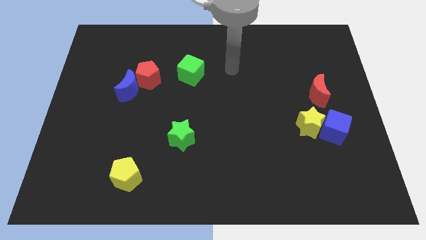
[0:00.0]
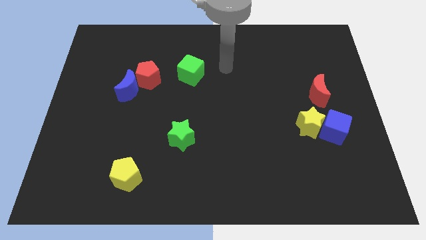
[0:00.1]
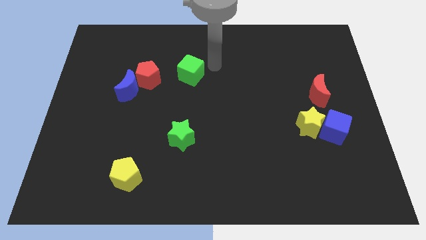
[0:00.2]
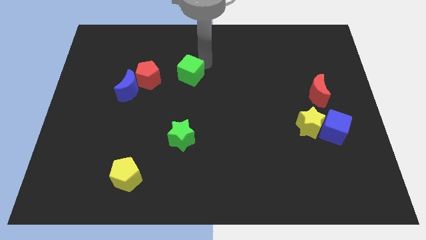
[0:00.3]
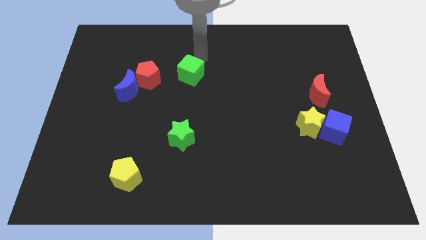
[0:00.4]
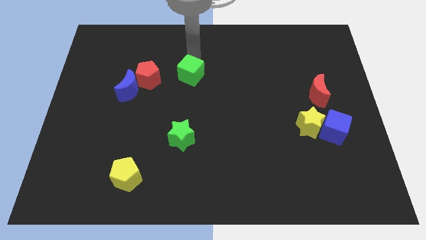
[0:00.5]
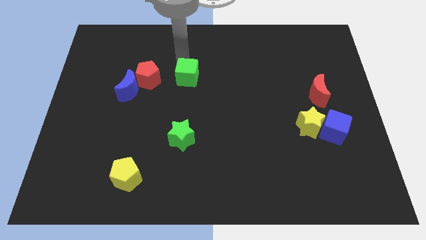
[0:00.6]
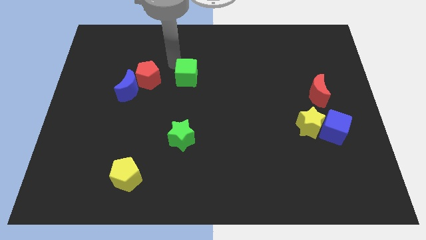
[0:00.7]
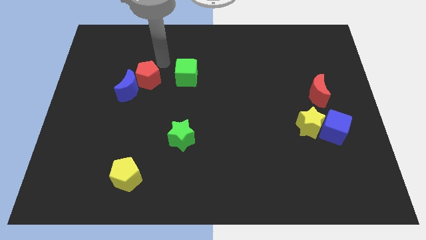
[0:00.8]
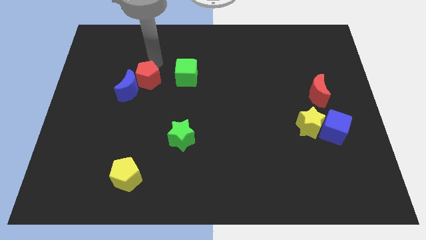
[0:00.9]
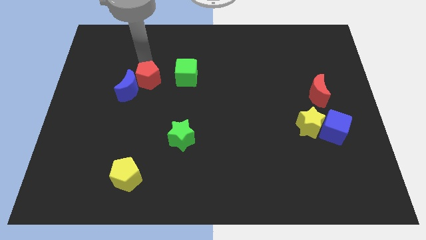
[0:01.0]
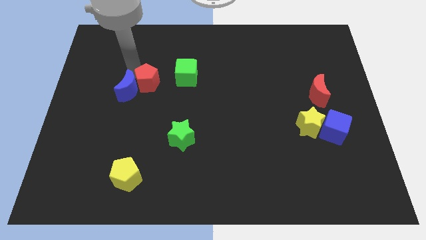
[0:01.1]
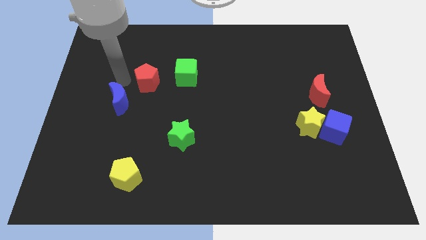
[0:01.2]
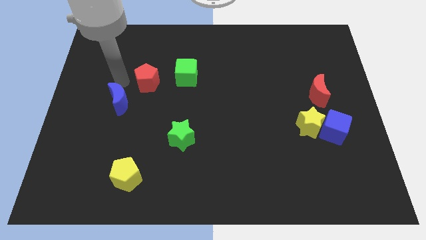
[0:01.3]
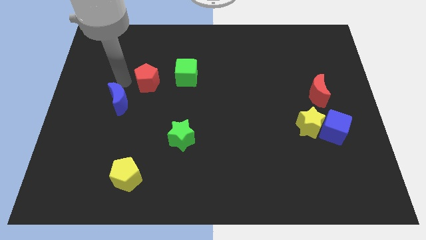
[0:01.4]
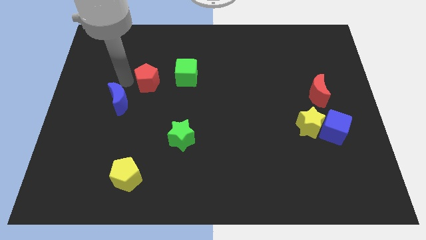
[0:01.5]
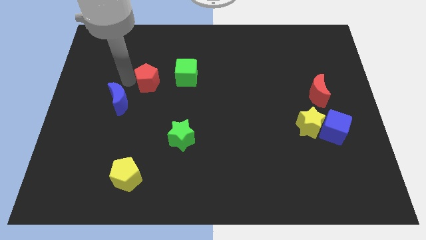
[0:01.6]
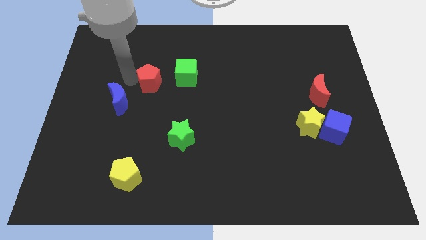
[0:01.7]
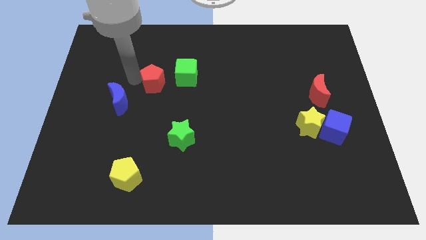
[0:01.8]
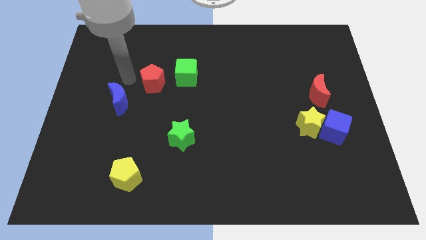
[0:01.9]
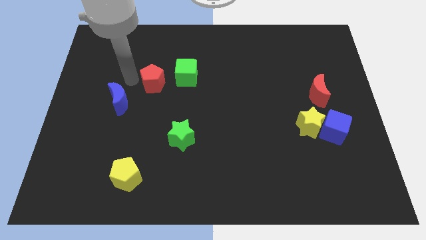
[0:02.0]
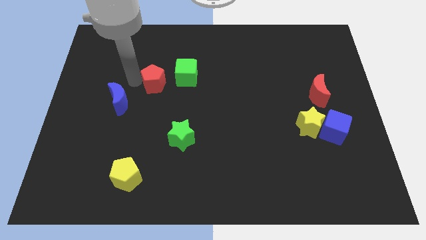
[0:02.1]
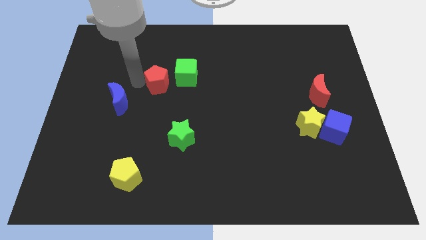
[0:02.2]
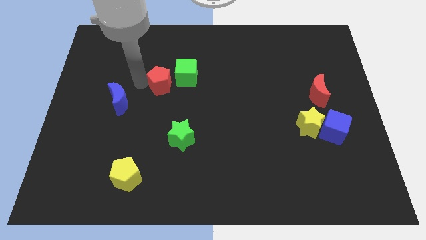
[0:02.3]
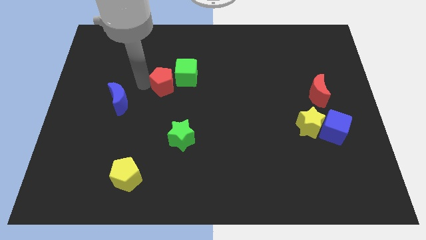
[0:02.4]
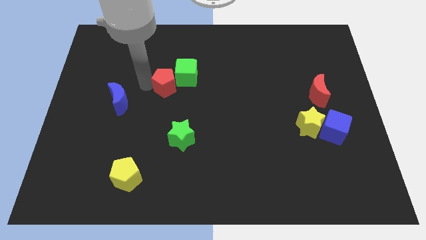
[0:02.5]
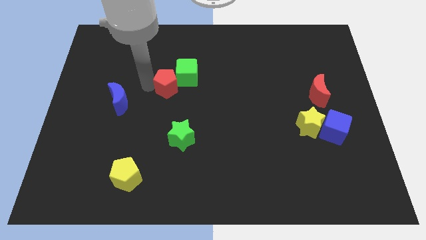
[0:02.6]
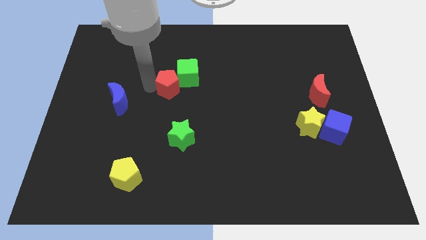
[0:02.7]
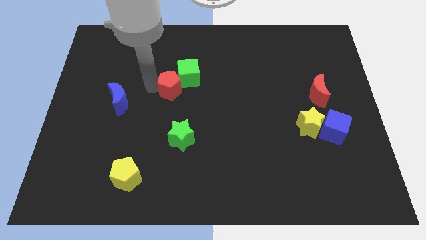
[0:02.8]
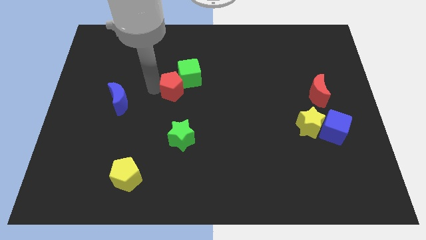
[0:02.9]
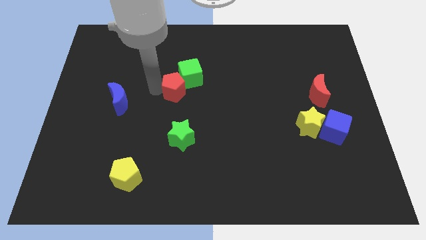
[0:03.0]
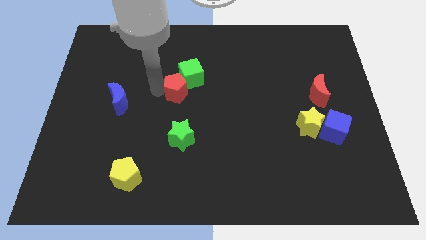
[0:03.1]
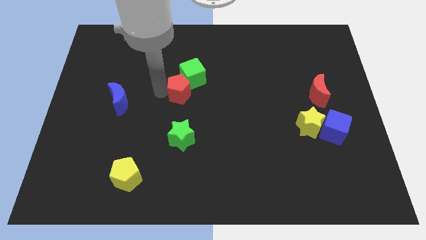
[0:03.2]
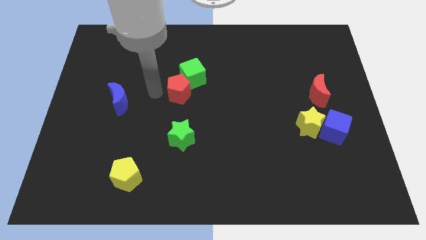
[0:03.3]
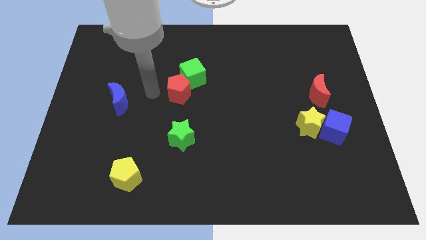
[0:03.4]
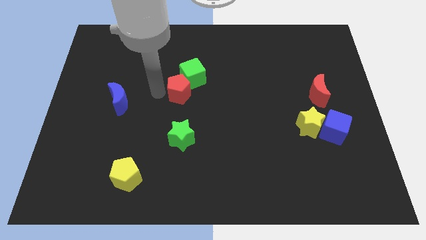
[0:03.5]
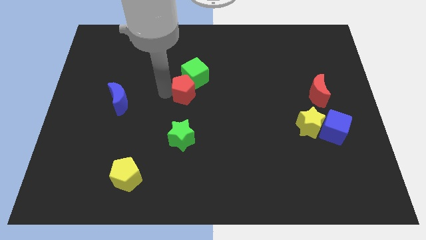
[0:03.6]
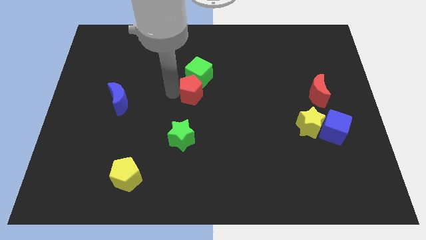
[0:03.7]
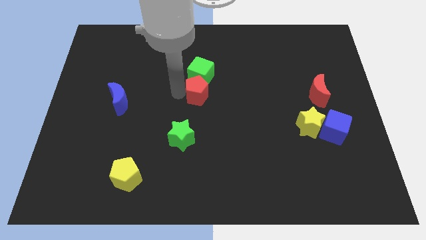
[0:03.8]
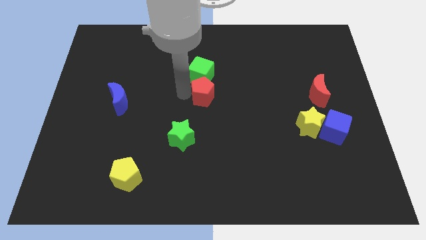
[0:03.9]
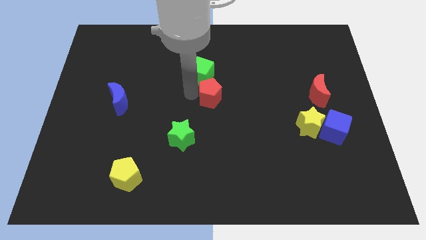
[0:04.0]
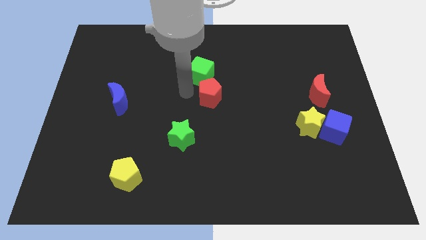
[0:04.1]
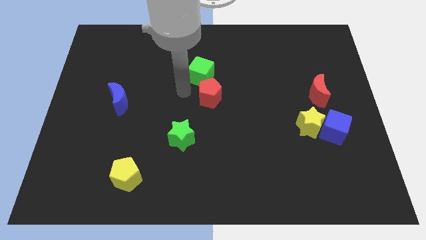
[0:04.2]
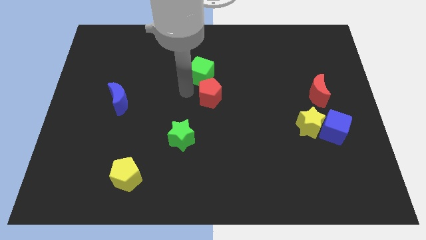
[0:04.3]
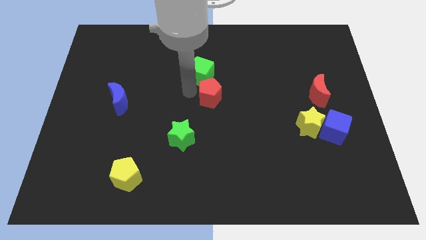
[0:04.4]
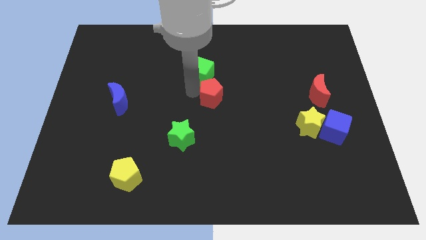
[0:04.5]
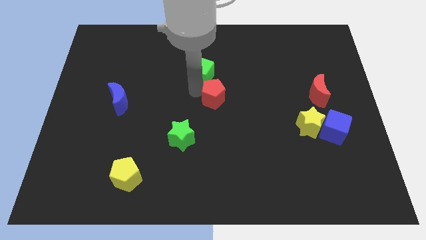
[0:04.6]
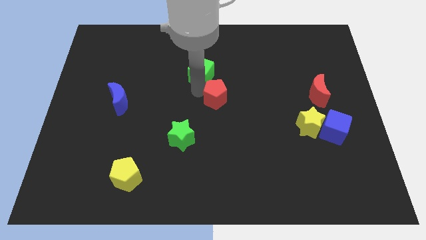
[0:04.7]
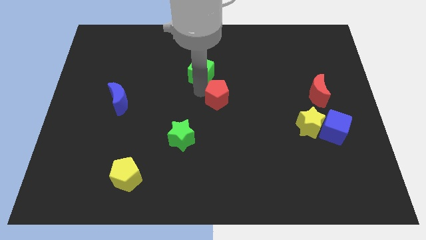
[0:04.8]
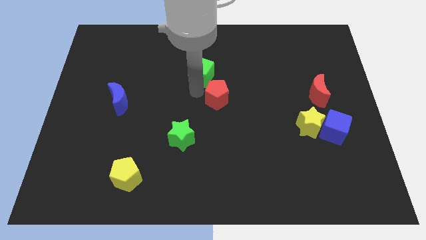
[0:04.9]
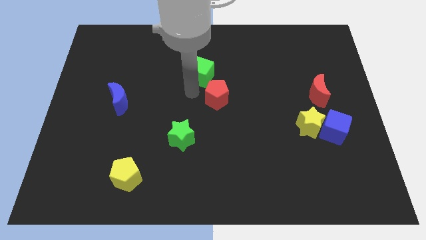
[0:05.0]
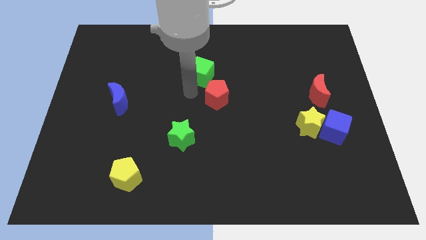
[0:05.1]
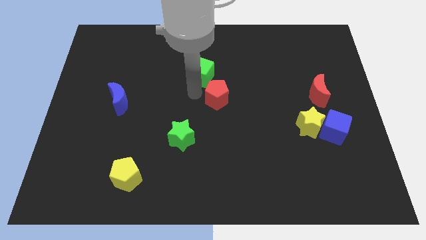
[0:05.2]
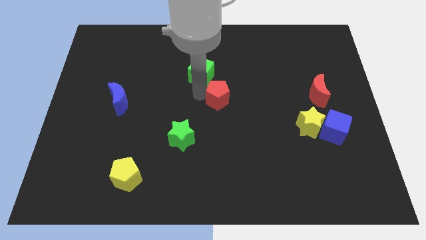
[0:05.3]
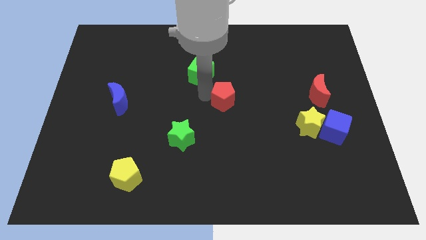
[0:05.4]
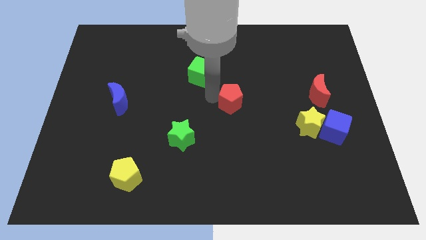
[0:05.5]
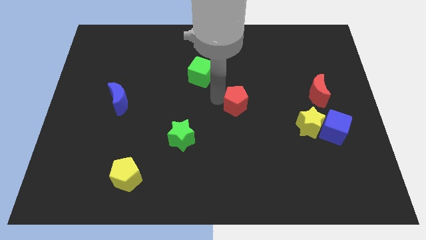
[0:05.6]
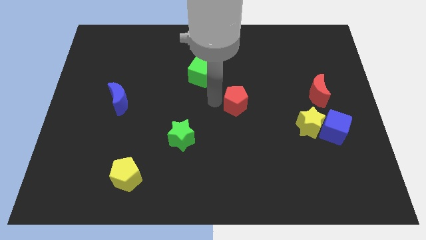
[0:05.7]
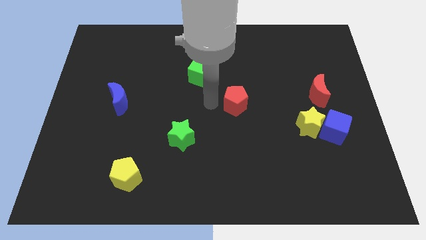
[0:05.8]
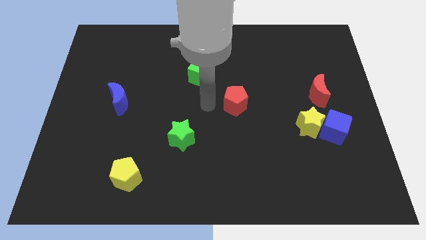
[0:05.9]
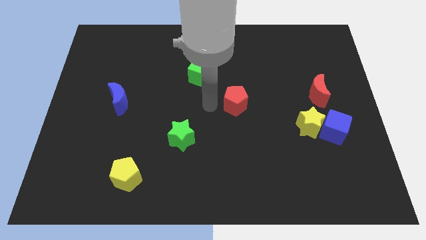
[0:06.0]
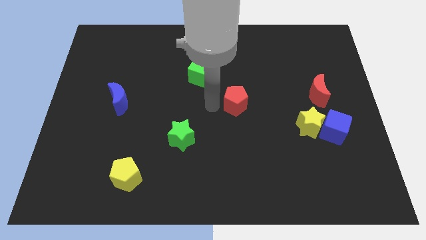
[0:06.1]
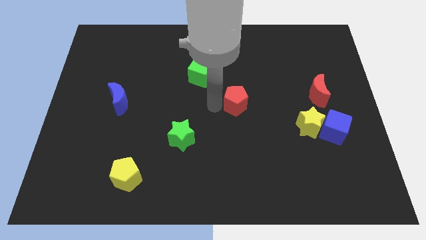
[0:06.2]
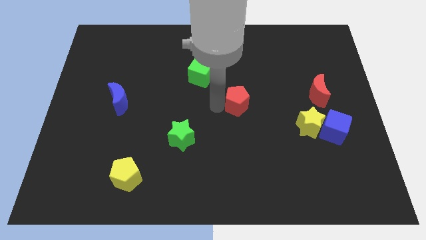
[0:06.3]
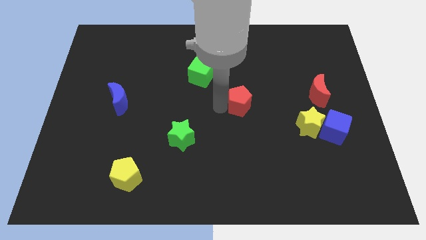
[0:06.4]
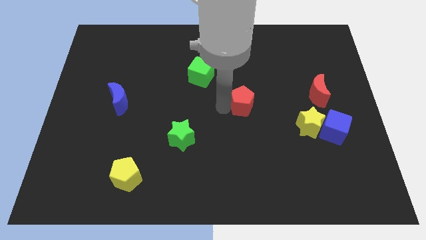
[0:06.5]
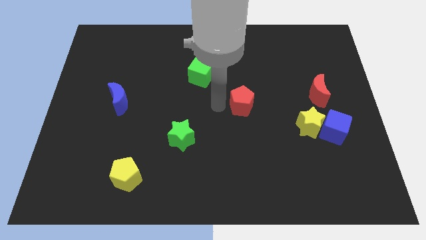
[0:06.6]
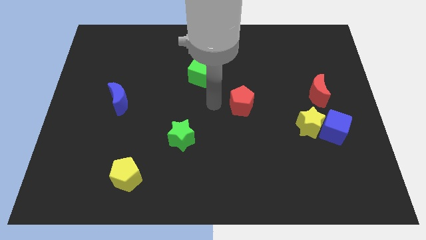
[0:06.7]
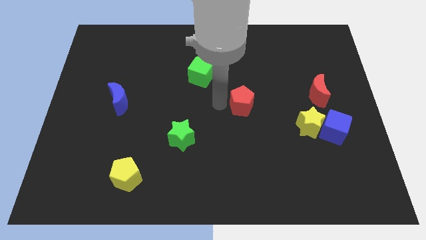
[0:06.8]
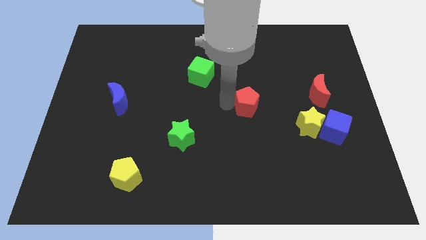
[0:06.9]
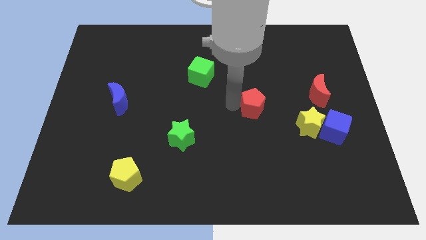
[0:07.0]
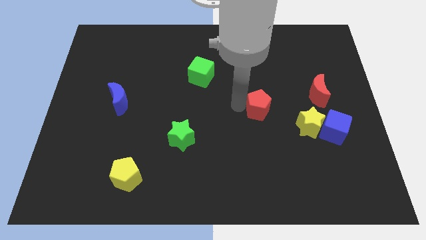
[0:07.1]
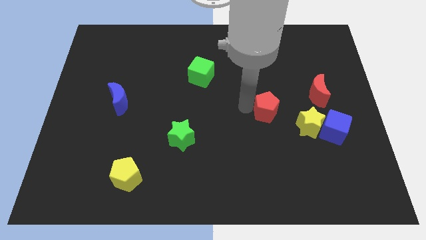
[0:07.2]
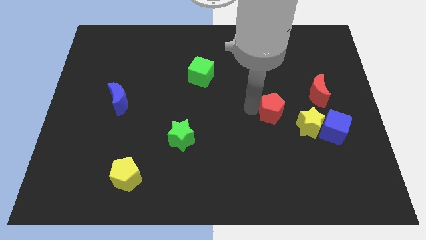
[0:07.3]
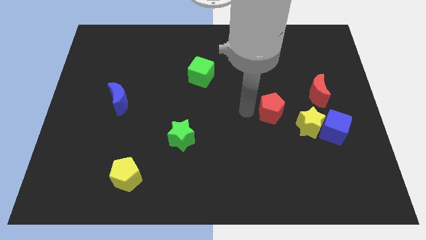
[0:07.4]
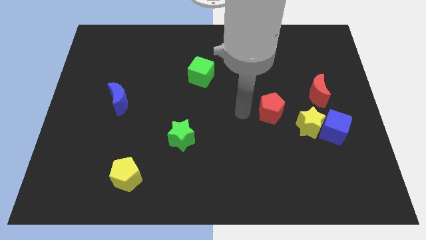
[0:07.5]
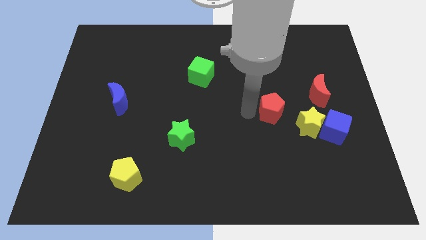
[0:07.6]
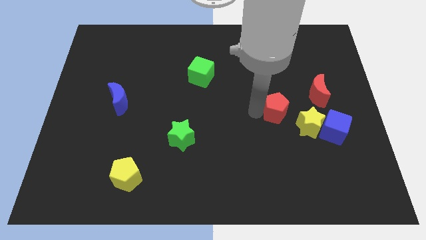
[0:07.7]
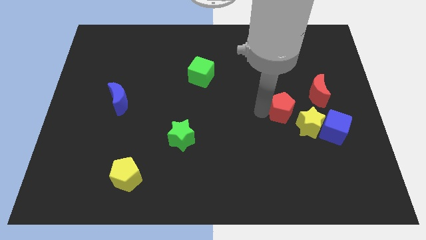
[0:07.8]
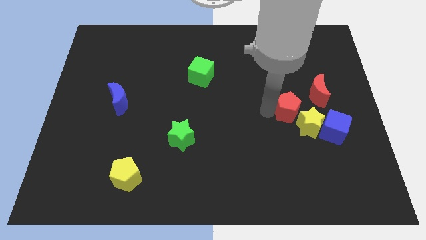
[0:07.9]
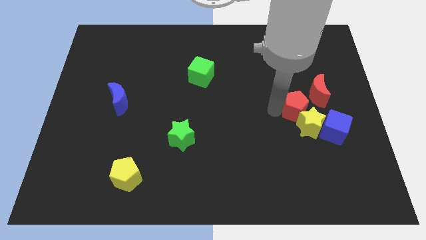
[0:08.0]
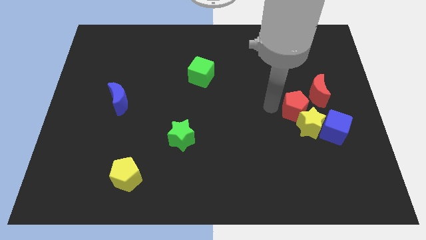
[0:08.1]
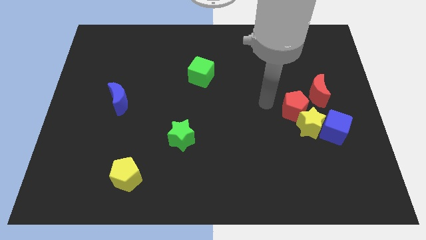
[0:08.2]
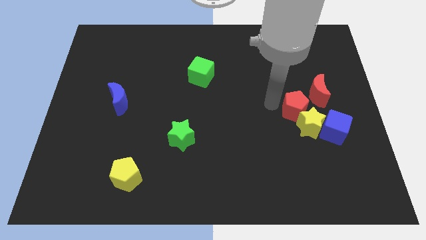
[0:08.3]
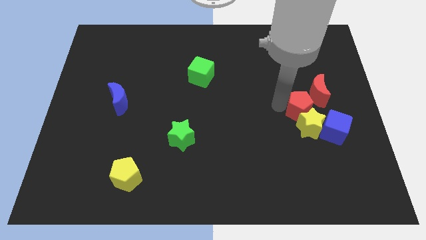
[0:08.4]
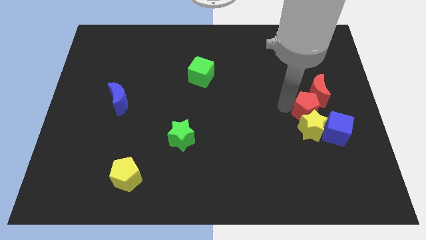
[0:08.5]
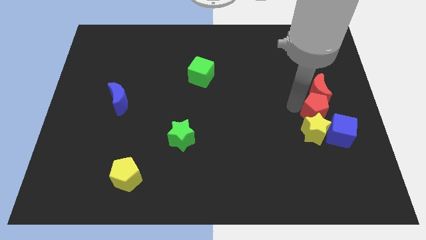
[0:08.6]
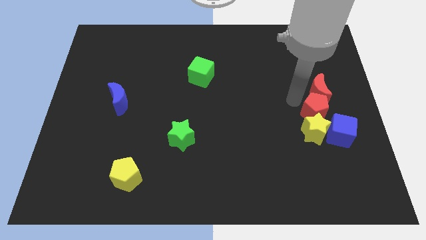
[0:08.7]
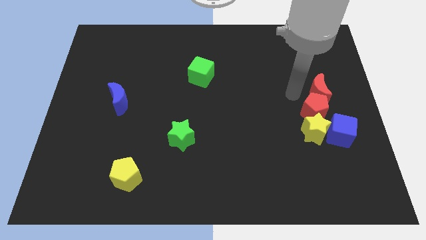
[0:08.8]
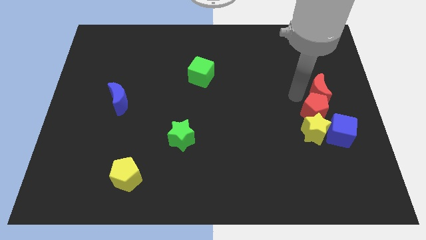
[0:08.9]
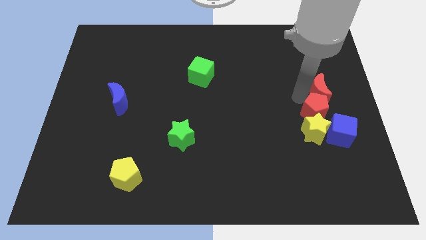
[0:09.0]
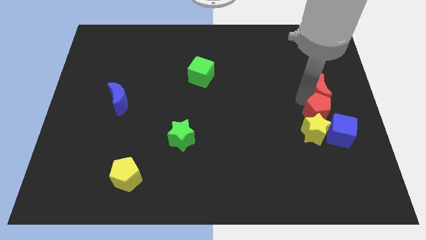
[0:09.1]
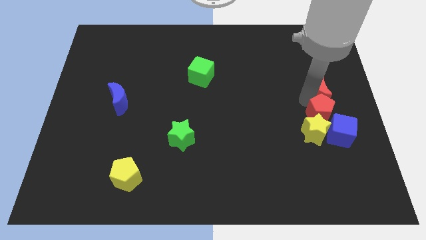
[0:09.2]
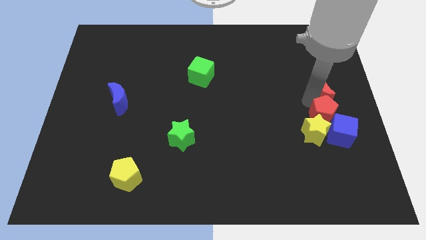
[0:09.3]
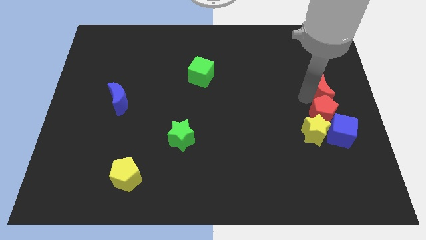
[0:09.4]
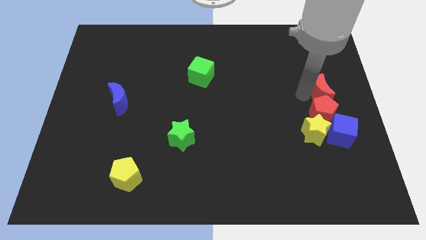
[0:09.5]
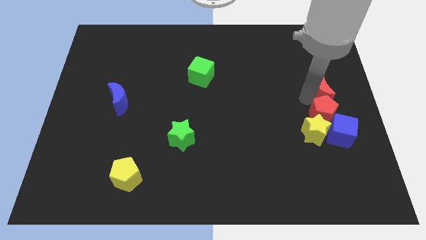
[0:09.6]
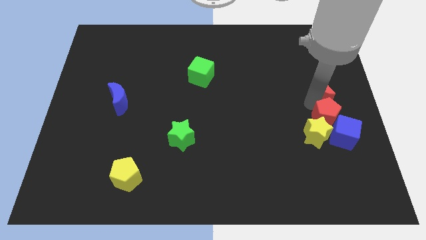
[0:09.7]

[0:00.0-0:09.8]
put the red pentagon close to the blue cube
